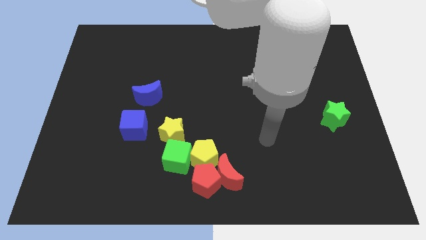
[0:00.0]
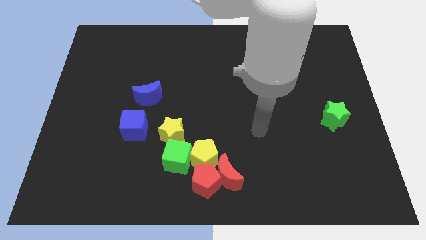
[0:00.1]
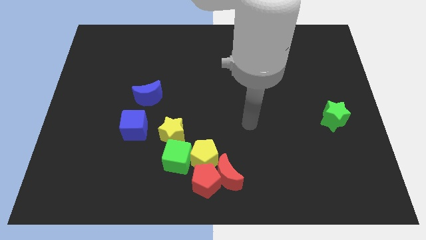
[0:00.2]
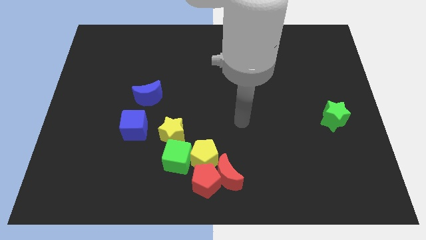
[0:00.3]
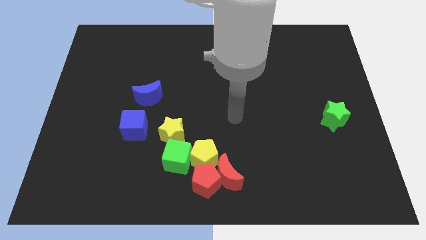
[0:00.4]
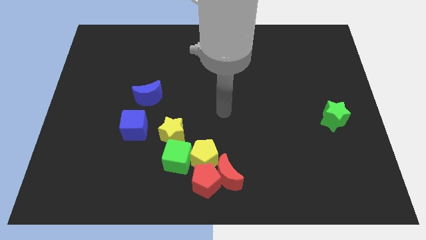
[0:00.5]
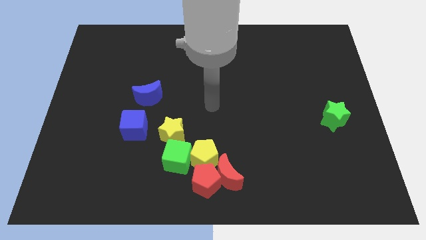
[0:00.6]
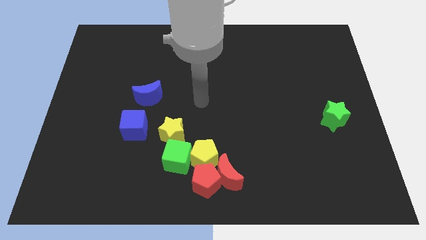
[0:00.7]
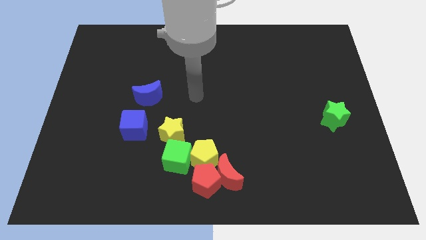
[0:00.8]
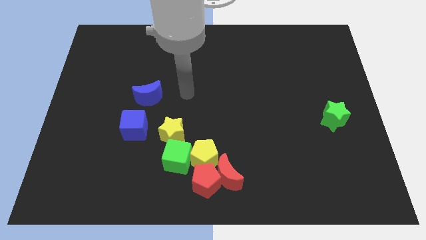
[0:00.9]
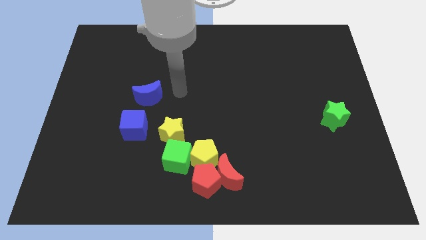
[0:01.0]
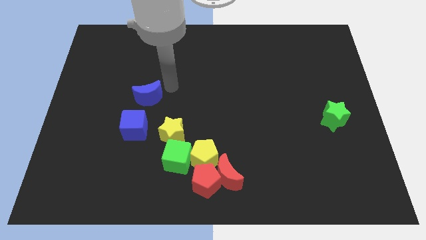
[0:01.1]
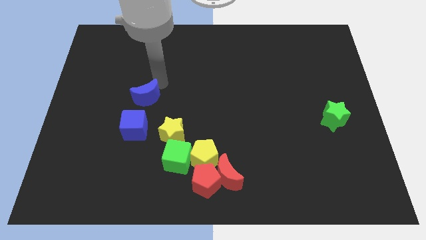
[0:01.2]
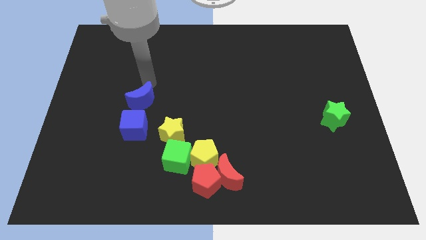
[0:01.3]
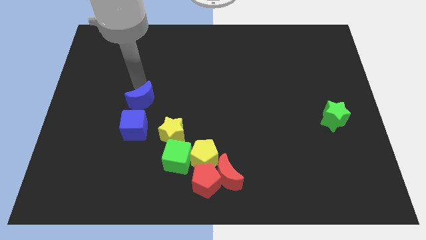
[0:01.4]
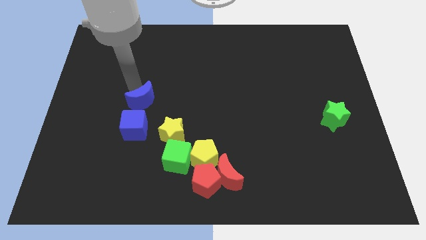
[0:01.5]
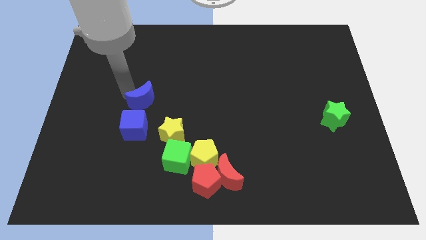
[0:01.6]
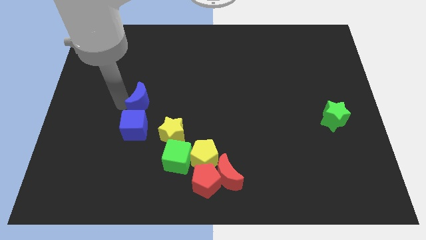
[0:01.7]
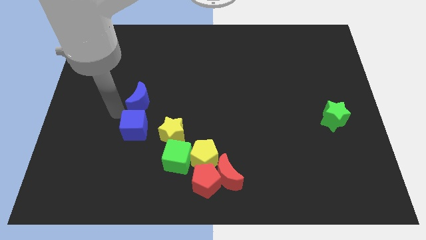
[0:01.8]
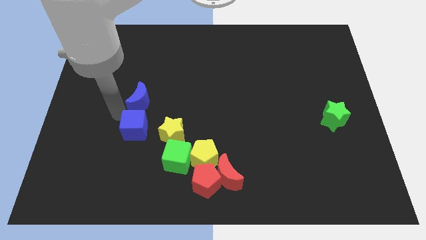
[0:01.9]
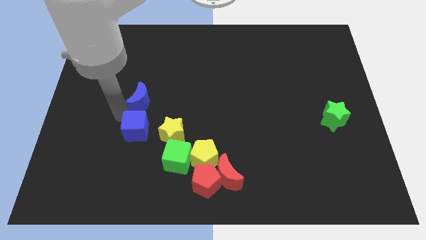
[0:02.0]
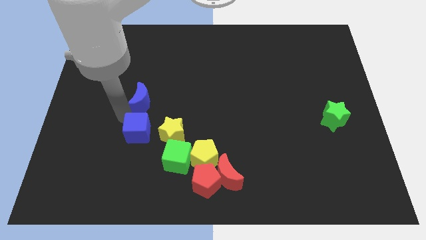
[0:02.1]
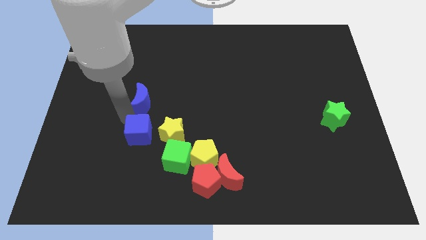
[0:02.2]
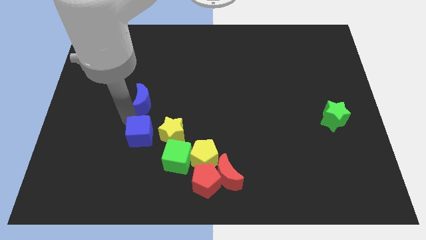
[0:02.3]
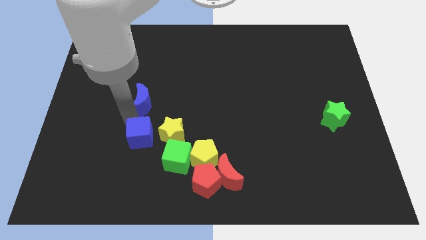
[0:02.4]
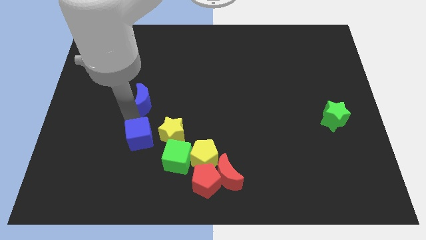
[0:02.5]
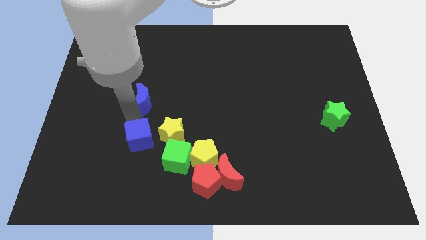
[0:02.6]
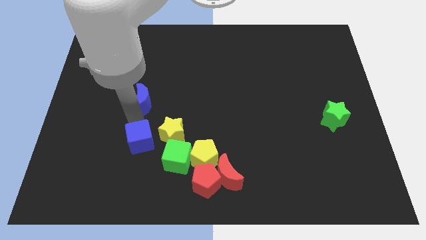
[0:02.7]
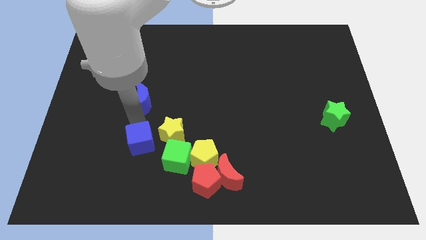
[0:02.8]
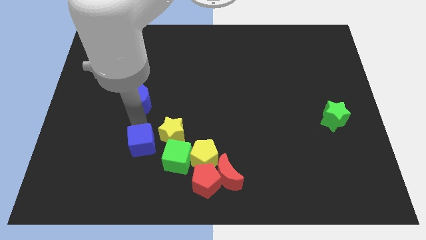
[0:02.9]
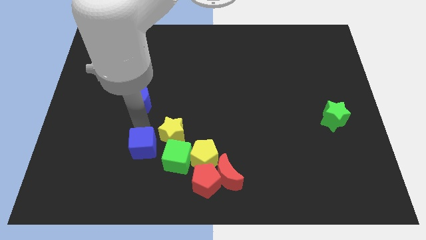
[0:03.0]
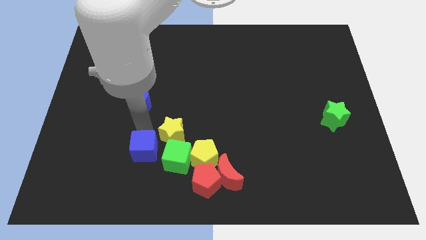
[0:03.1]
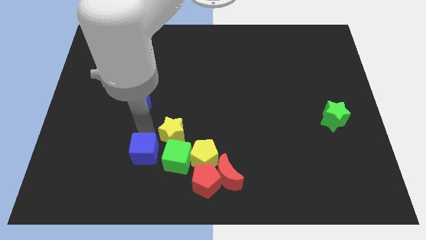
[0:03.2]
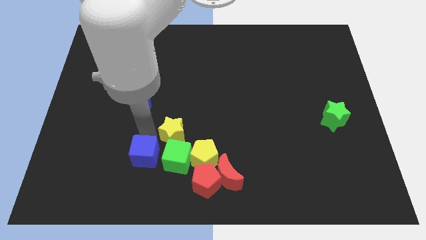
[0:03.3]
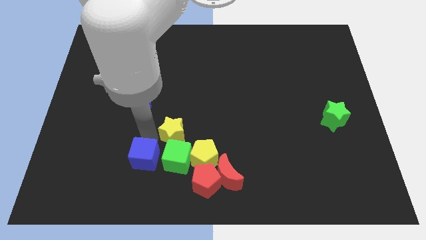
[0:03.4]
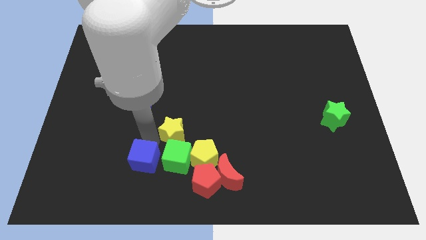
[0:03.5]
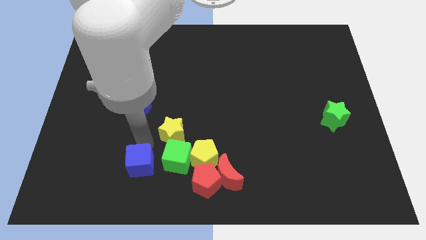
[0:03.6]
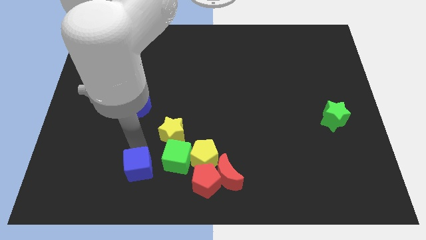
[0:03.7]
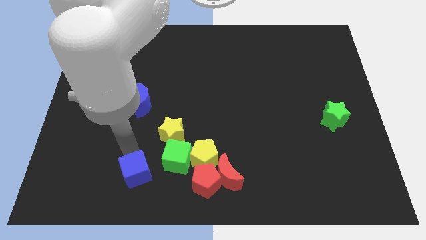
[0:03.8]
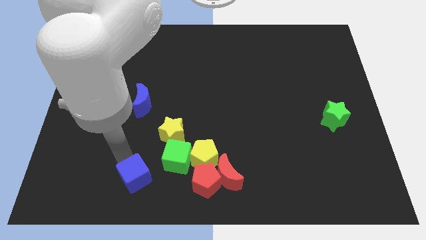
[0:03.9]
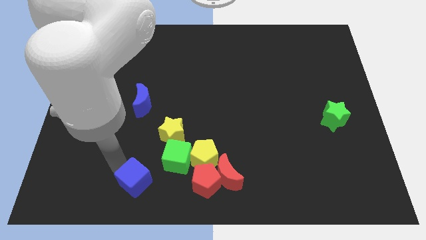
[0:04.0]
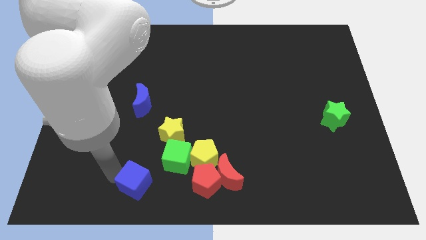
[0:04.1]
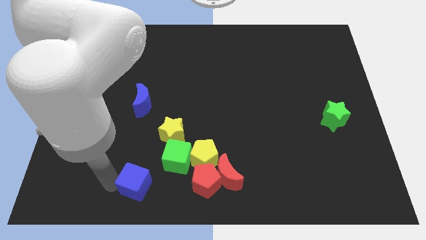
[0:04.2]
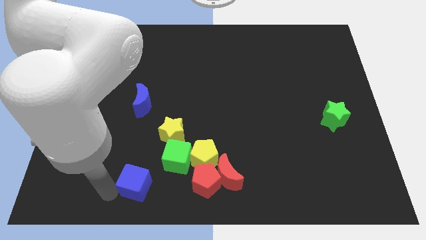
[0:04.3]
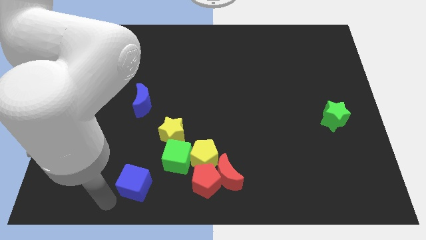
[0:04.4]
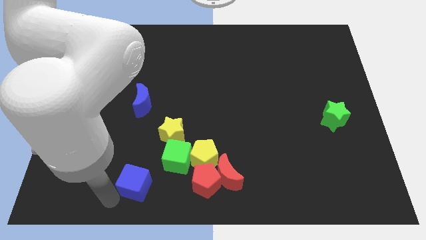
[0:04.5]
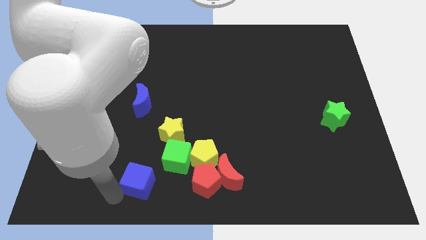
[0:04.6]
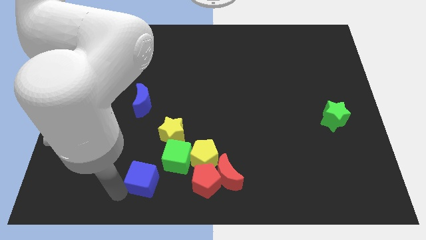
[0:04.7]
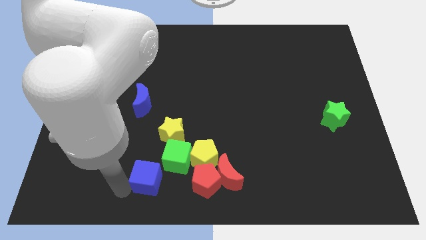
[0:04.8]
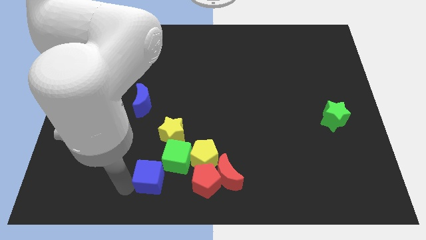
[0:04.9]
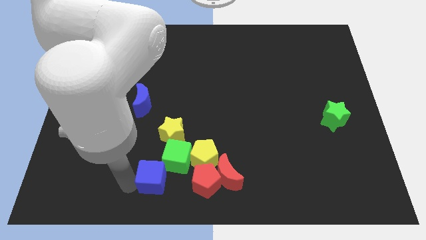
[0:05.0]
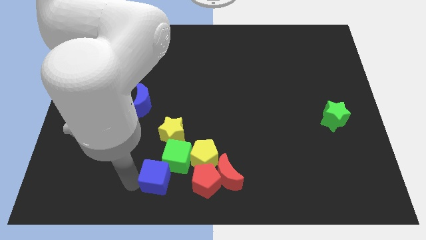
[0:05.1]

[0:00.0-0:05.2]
move the blue cube close to the green cube

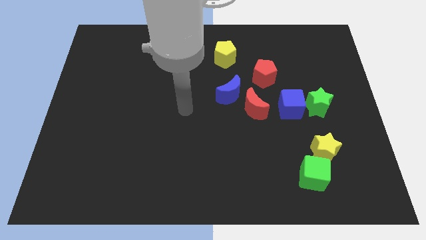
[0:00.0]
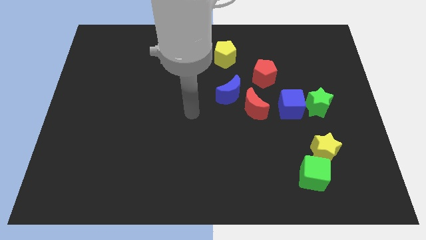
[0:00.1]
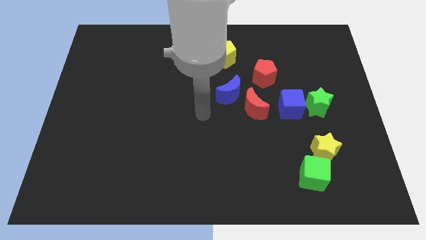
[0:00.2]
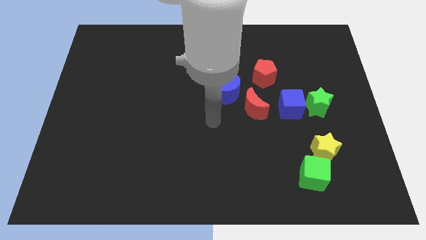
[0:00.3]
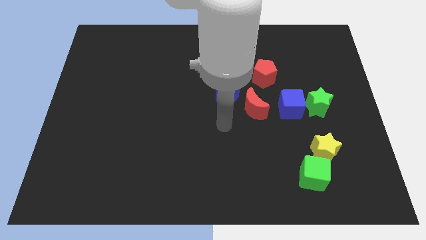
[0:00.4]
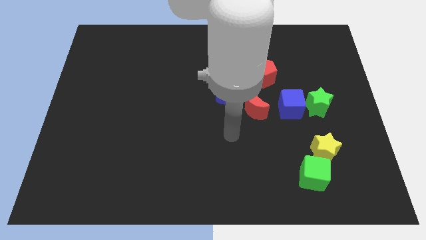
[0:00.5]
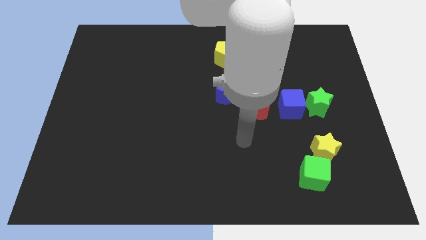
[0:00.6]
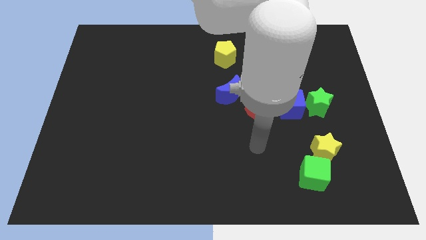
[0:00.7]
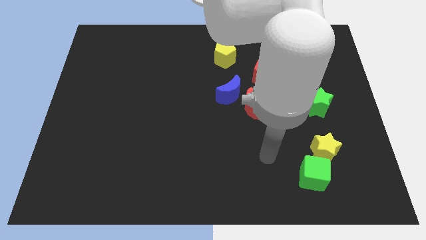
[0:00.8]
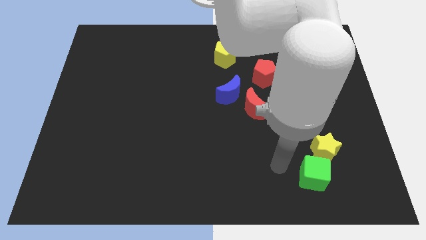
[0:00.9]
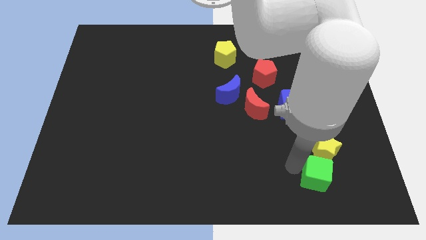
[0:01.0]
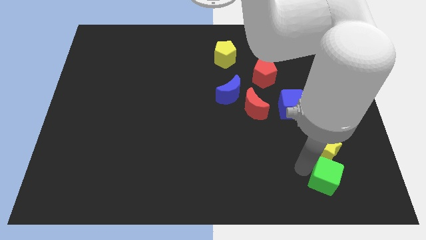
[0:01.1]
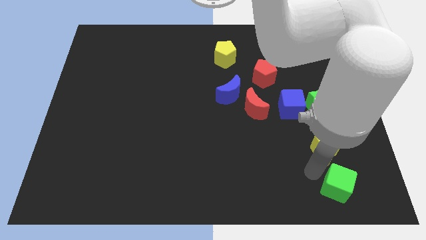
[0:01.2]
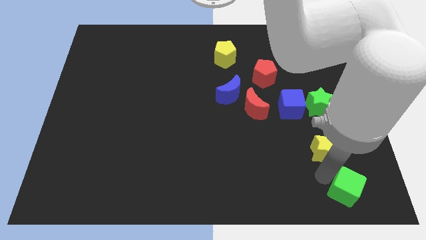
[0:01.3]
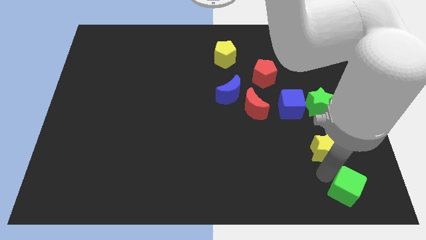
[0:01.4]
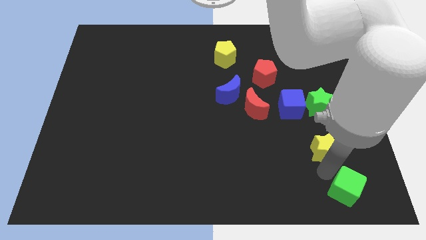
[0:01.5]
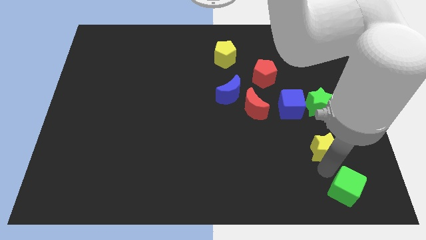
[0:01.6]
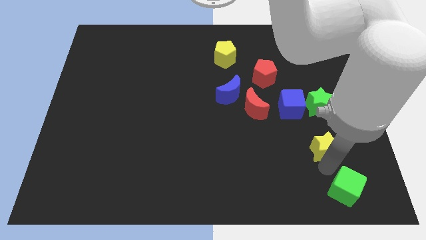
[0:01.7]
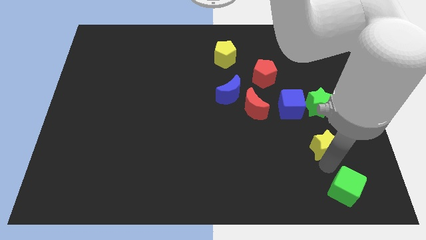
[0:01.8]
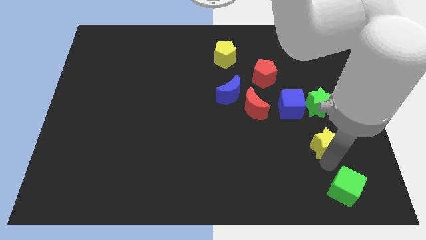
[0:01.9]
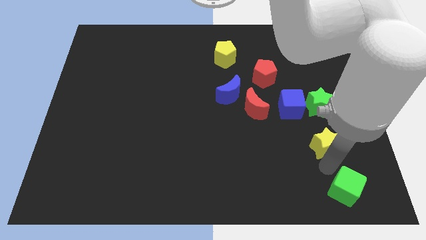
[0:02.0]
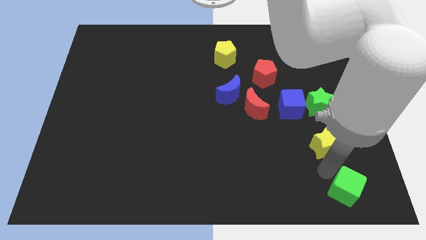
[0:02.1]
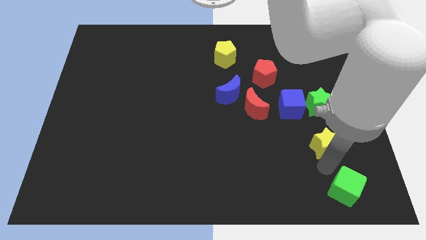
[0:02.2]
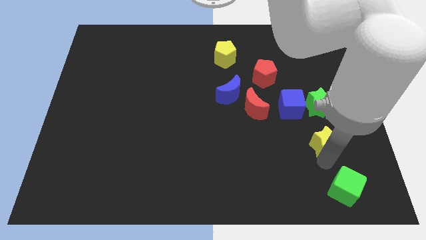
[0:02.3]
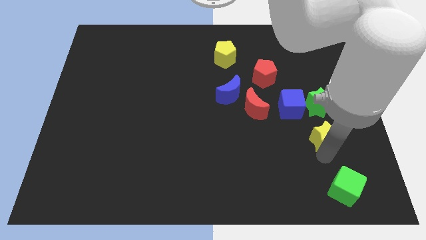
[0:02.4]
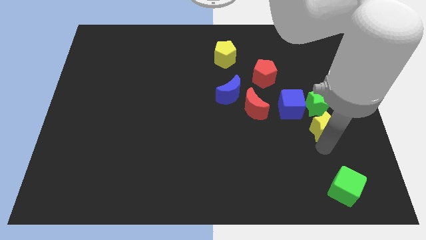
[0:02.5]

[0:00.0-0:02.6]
put the yellow star towards the green star
